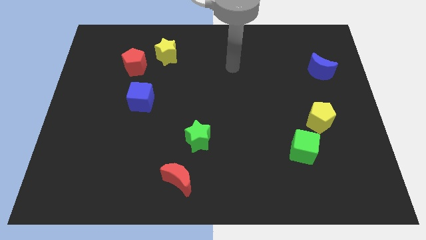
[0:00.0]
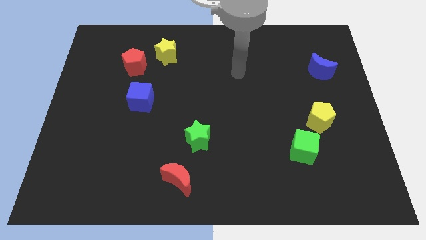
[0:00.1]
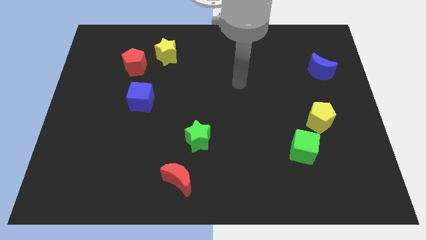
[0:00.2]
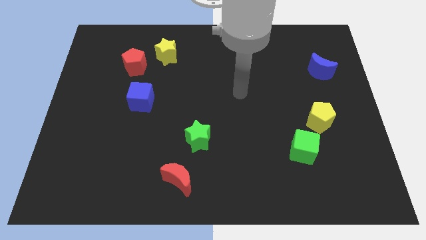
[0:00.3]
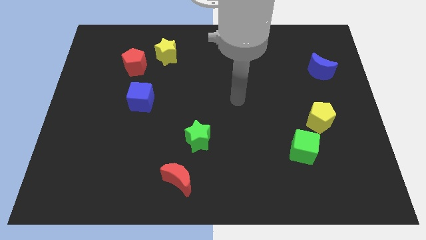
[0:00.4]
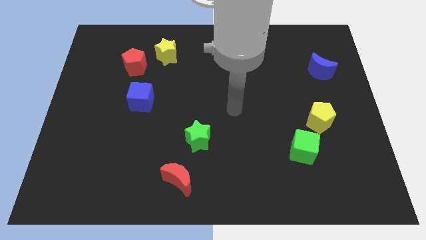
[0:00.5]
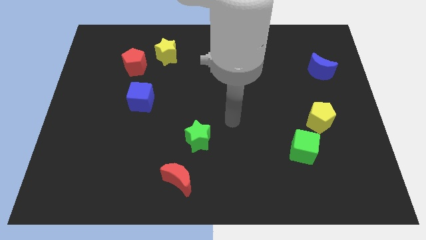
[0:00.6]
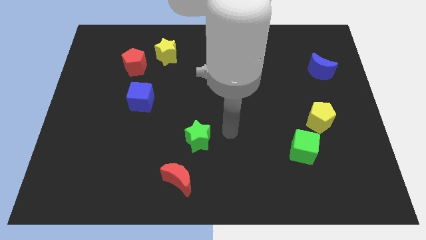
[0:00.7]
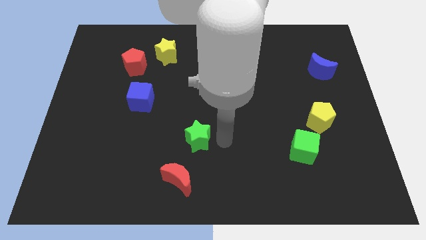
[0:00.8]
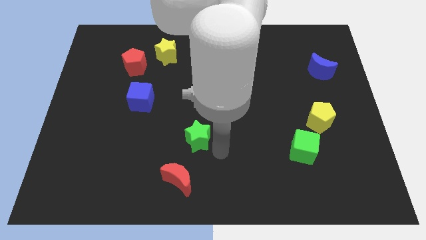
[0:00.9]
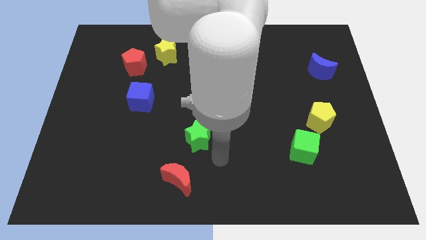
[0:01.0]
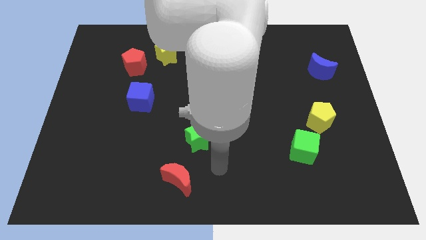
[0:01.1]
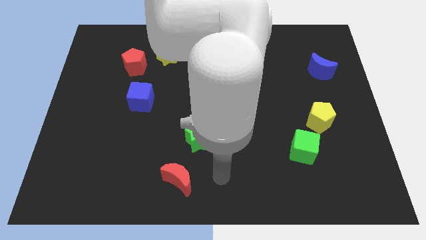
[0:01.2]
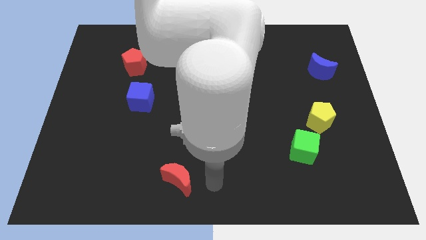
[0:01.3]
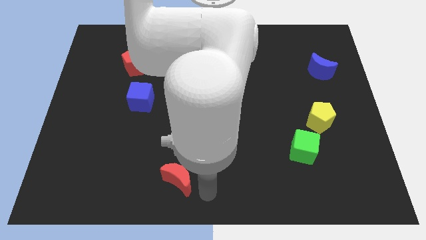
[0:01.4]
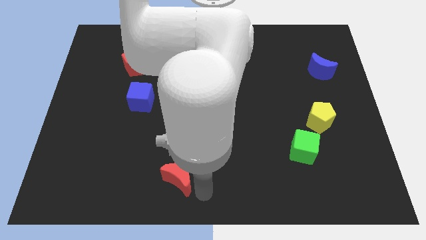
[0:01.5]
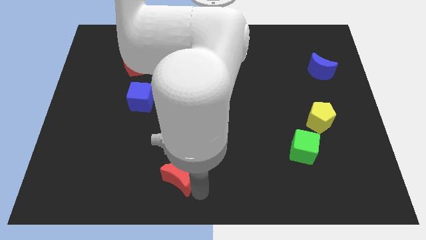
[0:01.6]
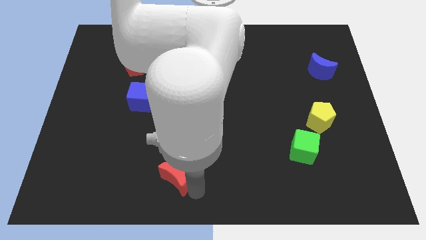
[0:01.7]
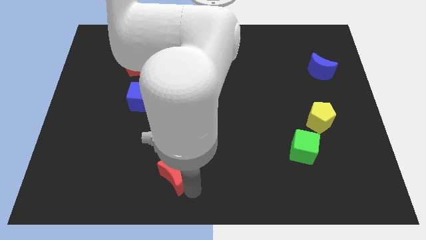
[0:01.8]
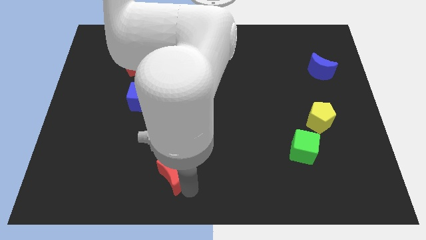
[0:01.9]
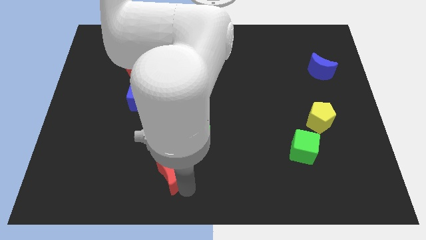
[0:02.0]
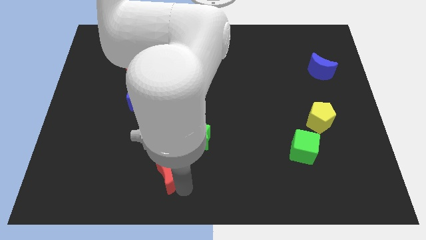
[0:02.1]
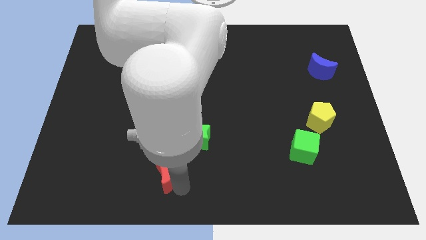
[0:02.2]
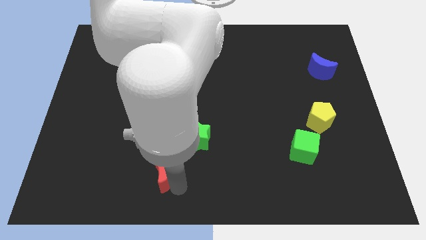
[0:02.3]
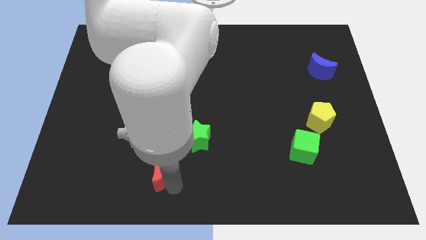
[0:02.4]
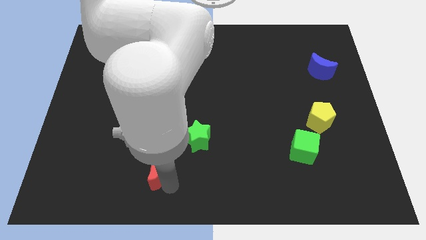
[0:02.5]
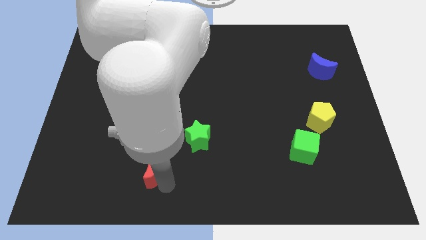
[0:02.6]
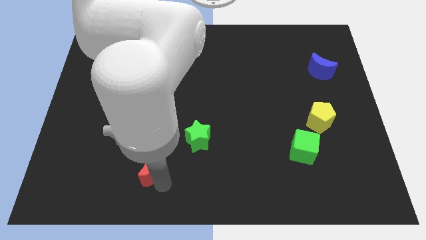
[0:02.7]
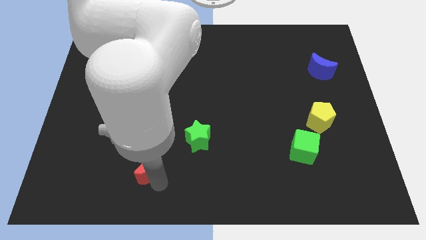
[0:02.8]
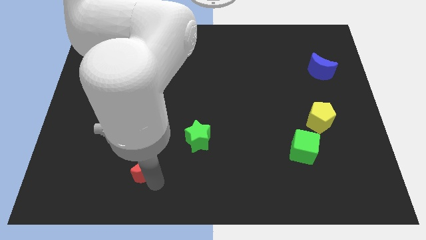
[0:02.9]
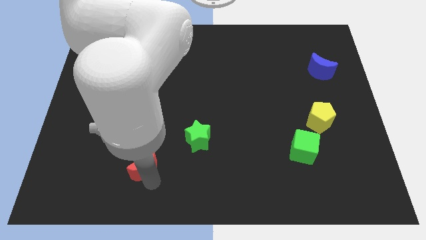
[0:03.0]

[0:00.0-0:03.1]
slightly push the red moon diagonally upwards and to the left

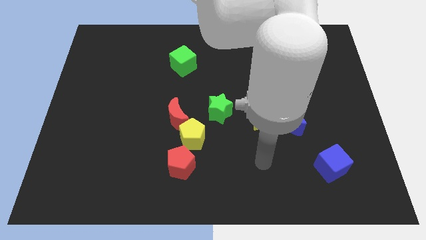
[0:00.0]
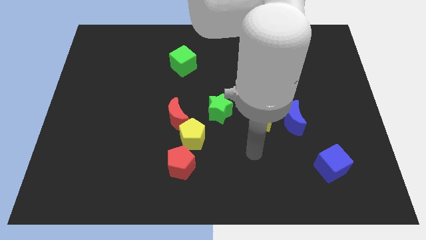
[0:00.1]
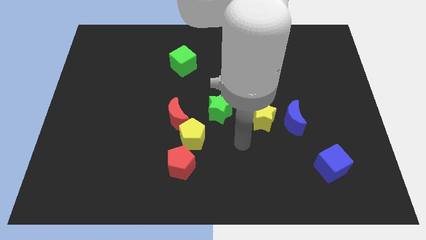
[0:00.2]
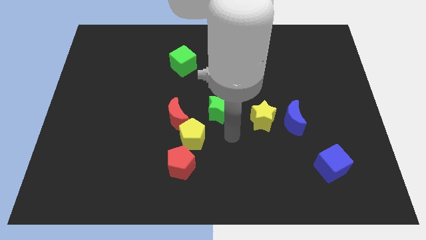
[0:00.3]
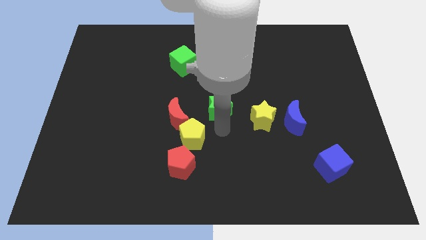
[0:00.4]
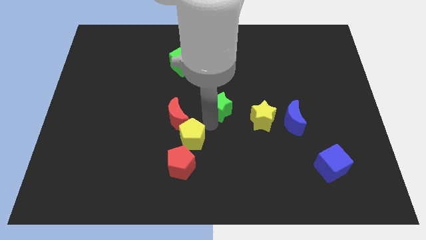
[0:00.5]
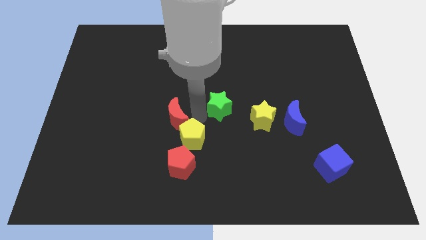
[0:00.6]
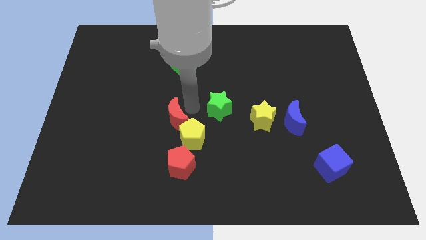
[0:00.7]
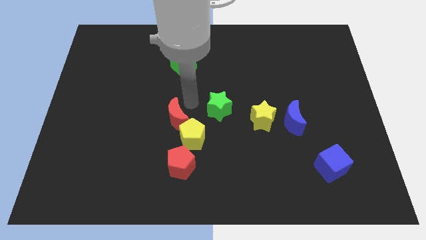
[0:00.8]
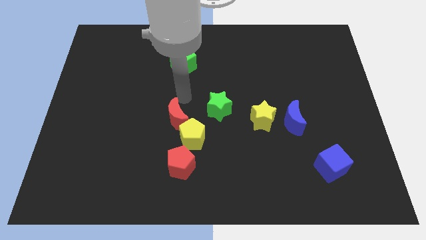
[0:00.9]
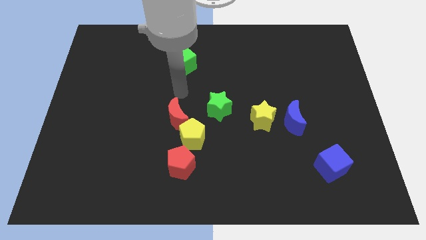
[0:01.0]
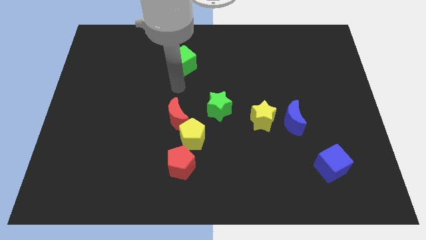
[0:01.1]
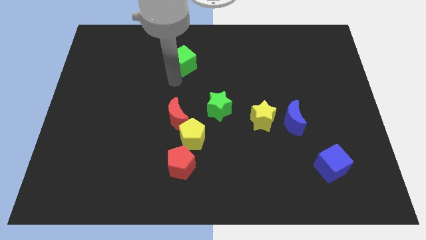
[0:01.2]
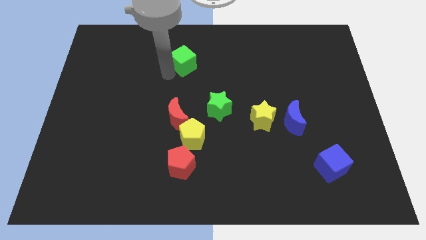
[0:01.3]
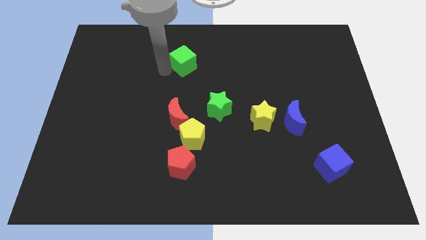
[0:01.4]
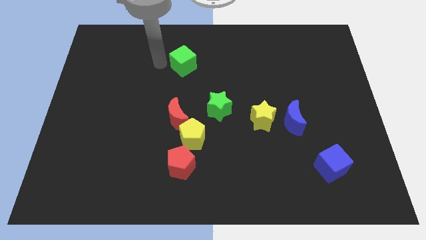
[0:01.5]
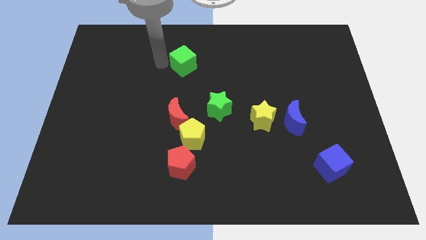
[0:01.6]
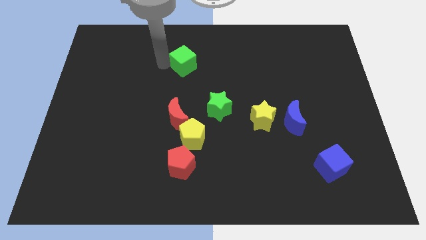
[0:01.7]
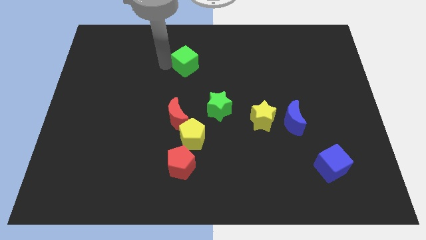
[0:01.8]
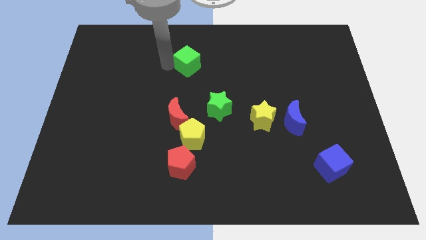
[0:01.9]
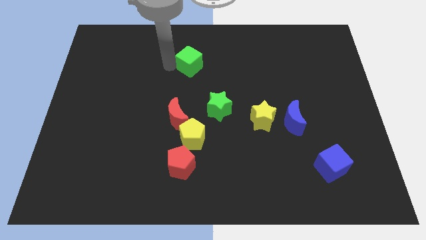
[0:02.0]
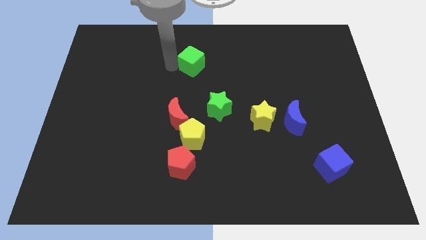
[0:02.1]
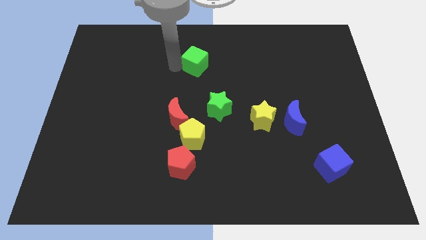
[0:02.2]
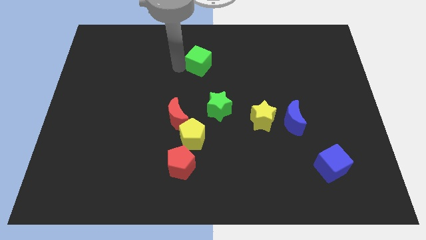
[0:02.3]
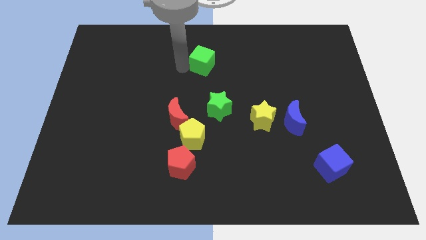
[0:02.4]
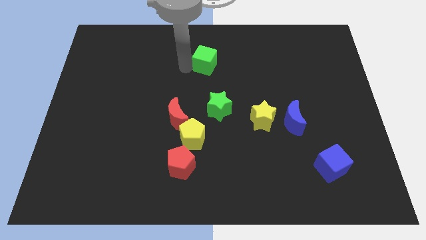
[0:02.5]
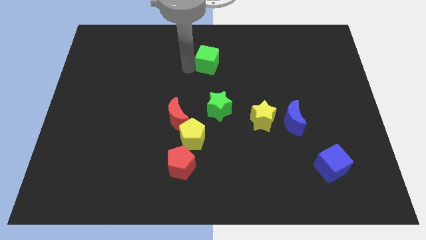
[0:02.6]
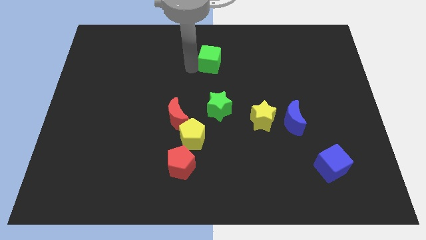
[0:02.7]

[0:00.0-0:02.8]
move the green cube slightly to the right

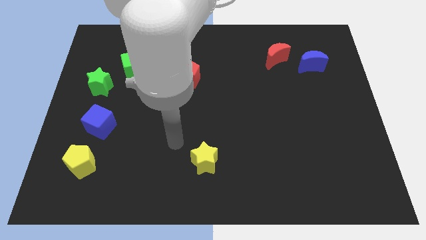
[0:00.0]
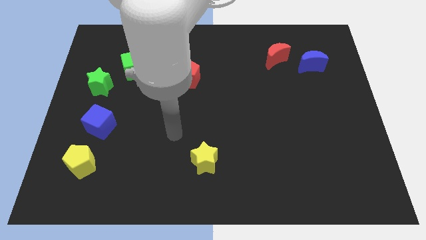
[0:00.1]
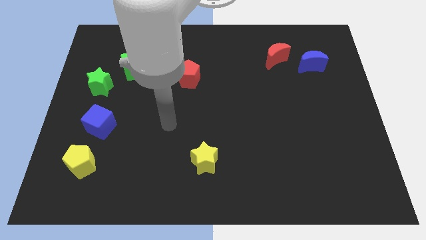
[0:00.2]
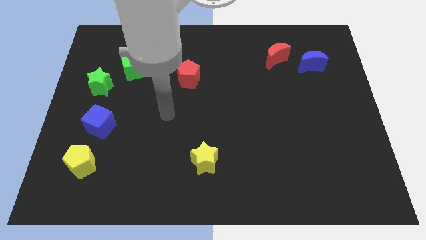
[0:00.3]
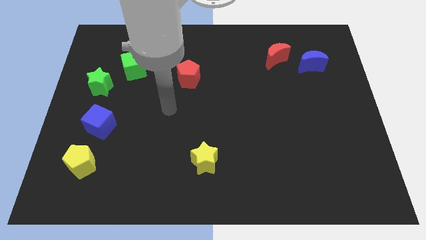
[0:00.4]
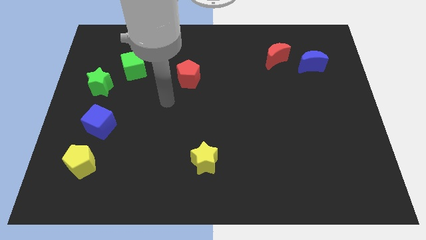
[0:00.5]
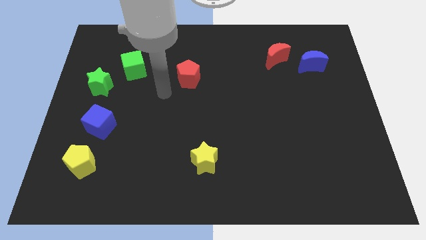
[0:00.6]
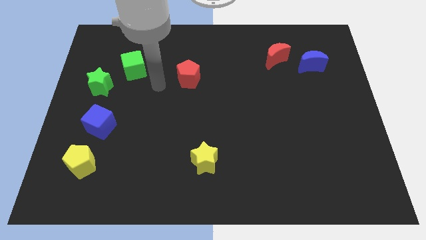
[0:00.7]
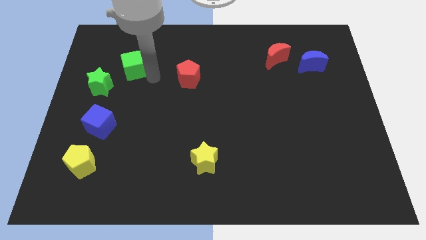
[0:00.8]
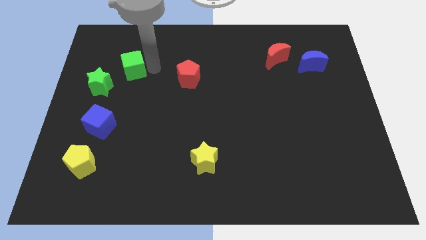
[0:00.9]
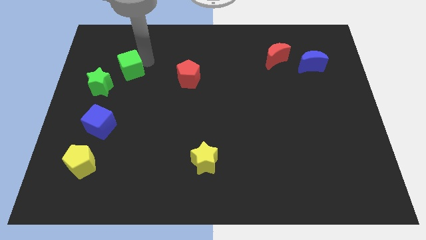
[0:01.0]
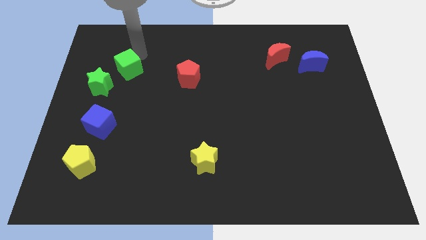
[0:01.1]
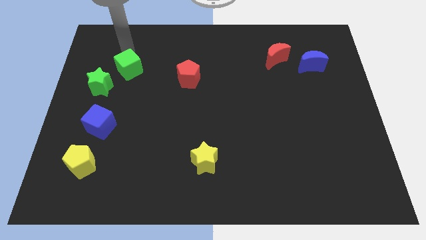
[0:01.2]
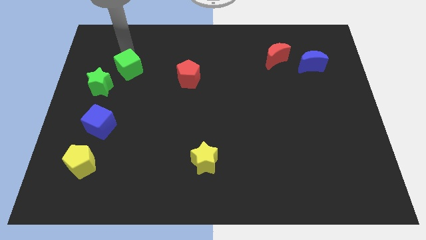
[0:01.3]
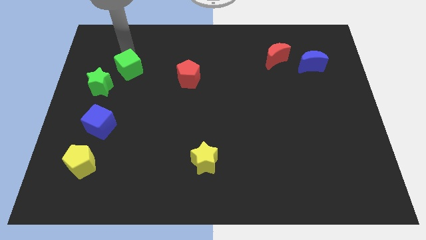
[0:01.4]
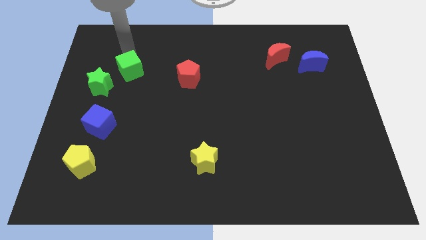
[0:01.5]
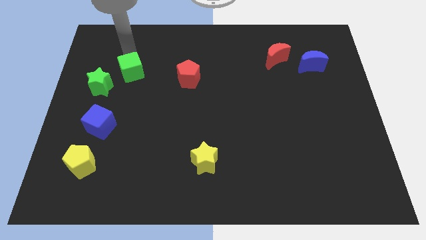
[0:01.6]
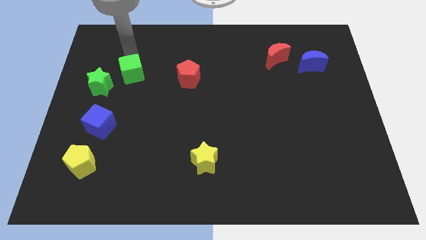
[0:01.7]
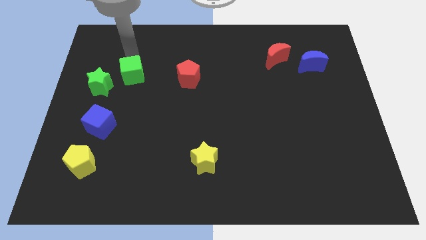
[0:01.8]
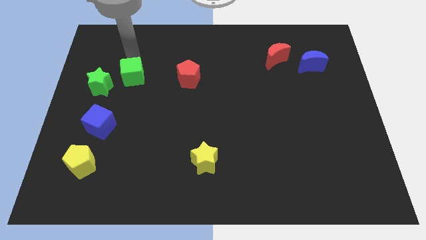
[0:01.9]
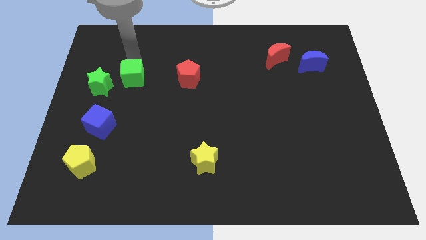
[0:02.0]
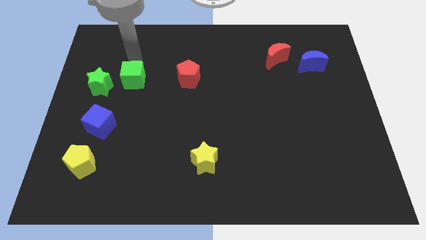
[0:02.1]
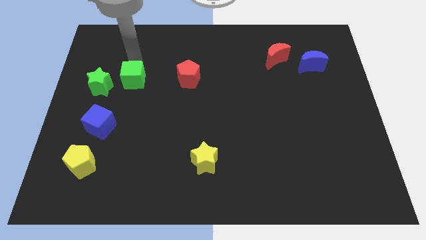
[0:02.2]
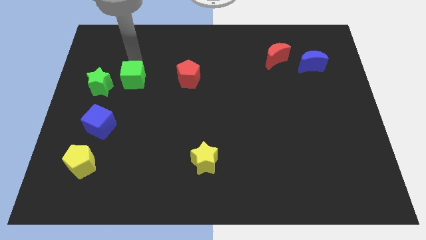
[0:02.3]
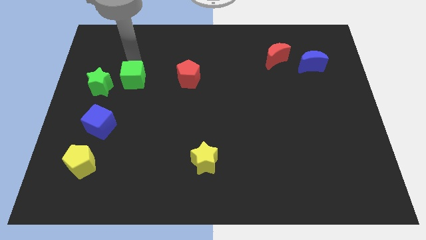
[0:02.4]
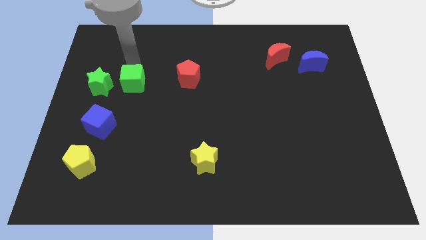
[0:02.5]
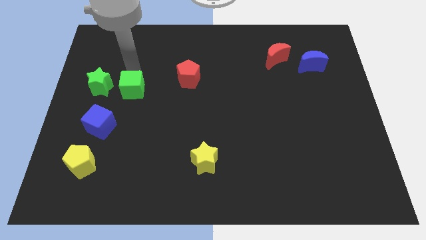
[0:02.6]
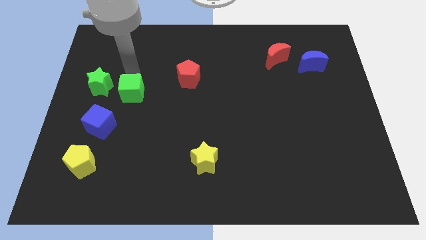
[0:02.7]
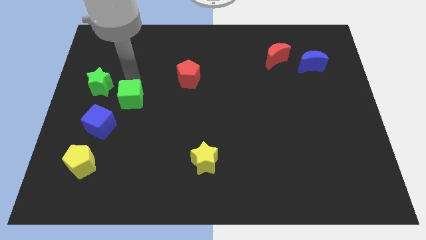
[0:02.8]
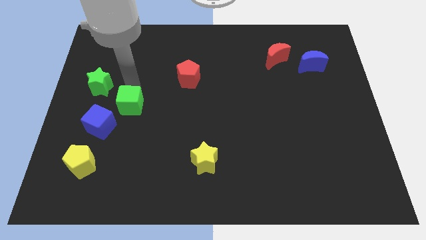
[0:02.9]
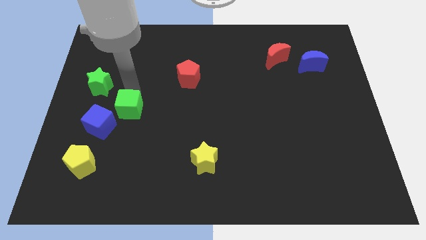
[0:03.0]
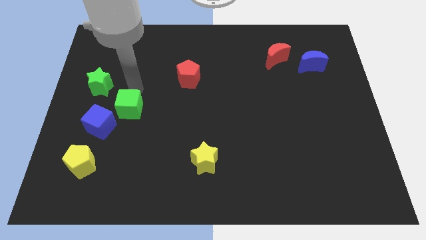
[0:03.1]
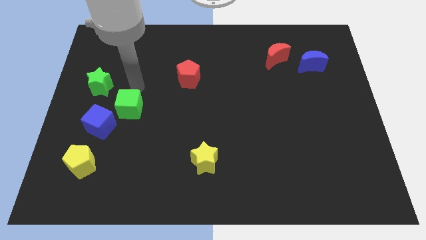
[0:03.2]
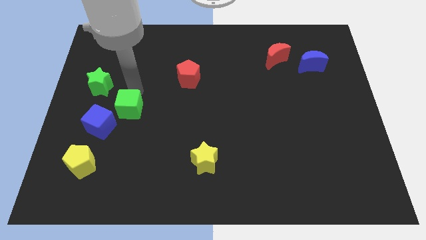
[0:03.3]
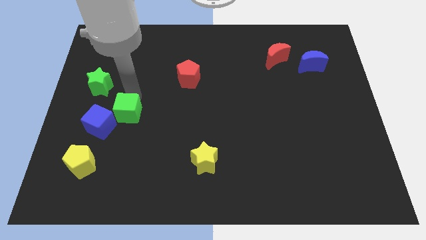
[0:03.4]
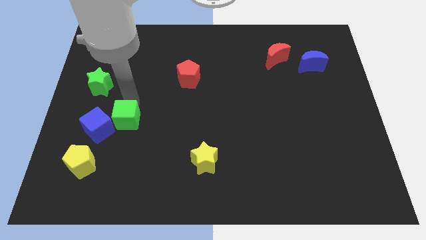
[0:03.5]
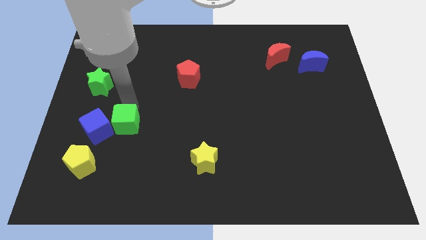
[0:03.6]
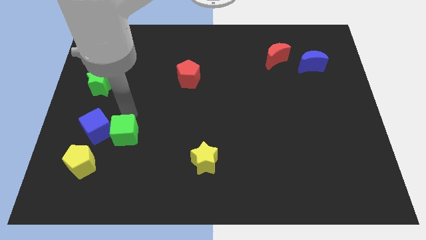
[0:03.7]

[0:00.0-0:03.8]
move the green cube downwards
